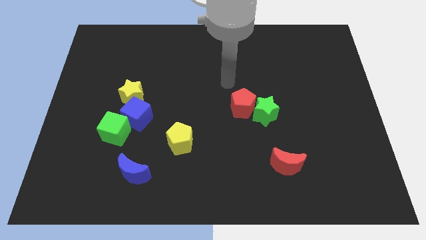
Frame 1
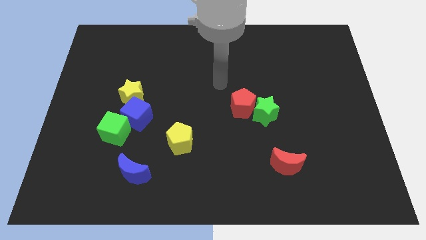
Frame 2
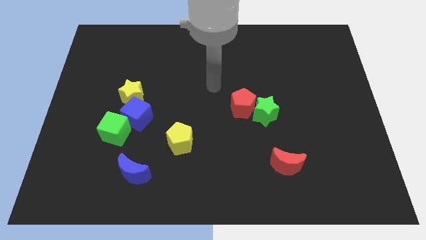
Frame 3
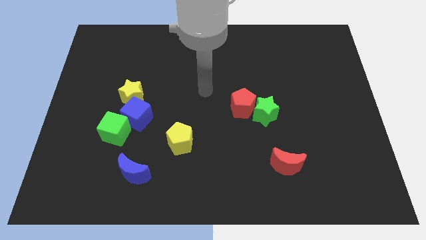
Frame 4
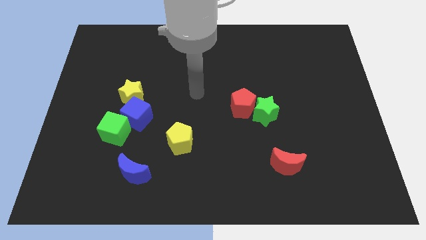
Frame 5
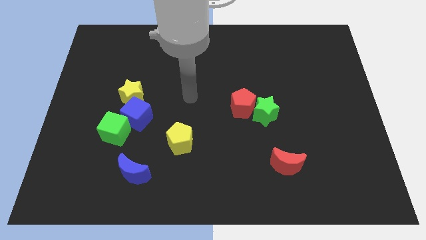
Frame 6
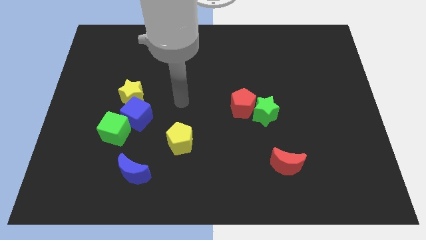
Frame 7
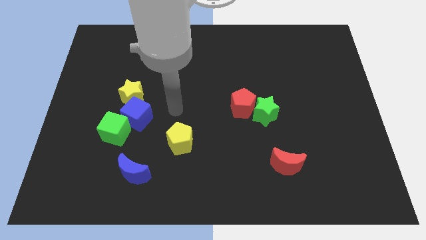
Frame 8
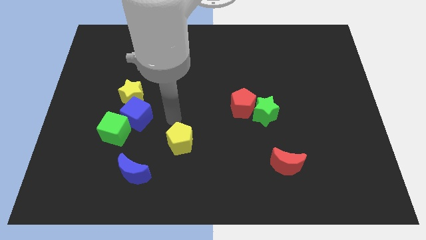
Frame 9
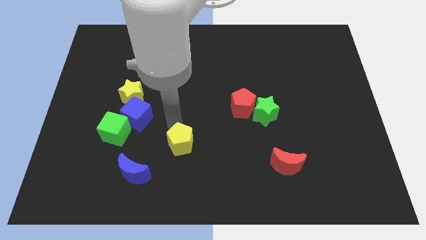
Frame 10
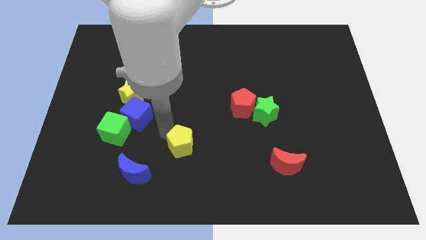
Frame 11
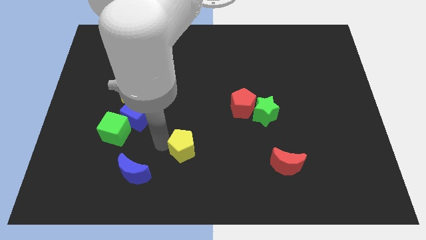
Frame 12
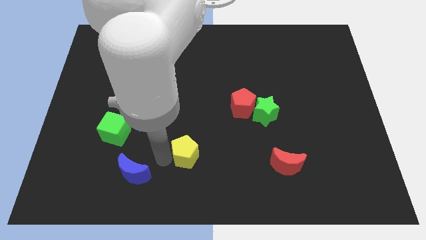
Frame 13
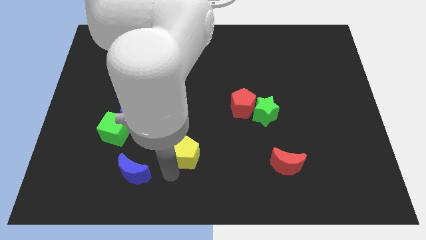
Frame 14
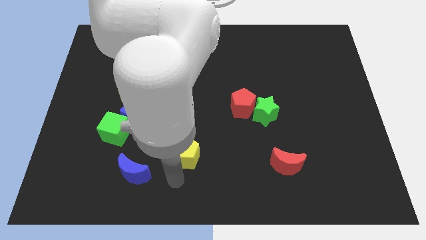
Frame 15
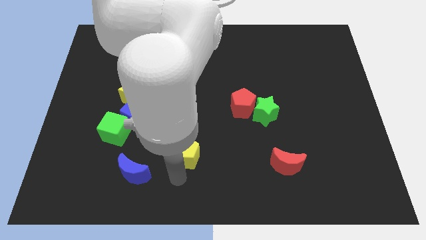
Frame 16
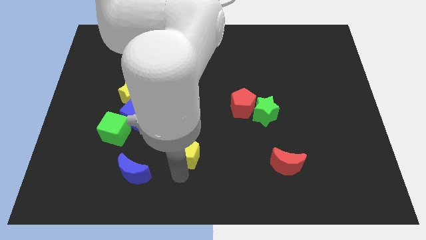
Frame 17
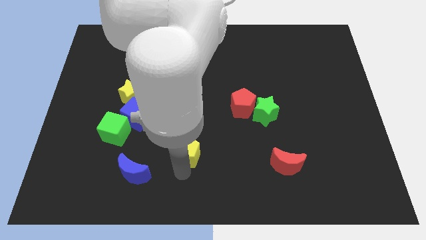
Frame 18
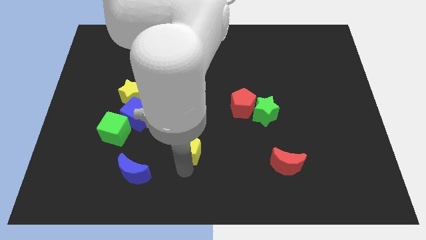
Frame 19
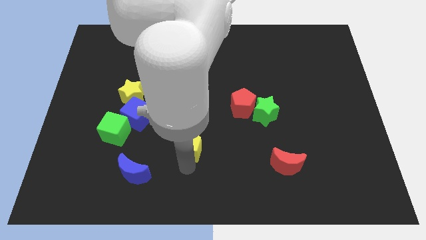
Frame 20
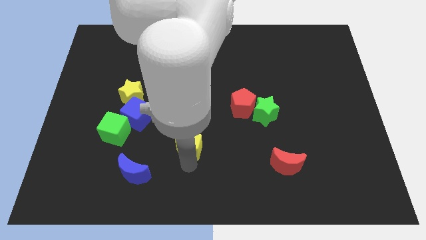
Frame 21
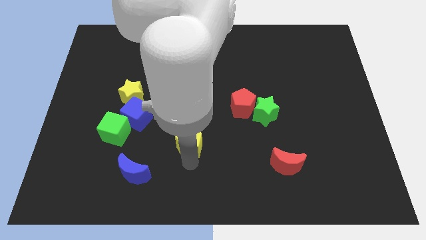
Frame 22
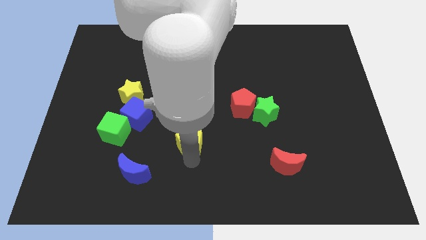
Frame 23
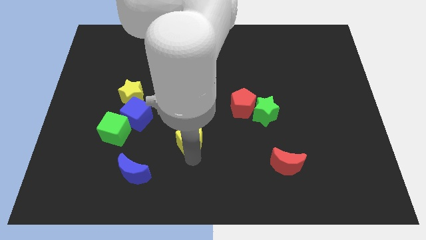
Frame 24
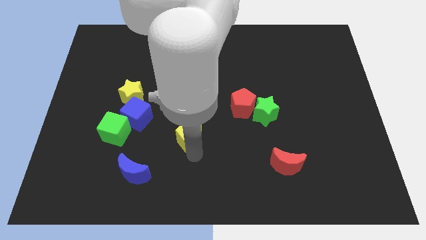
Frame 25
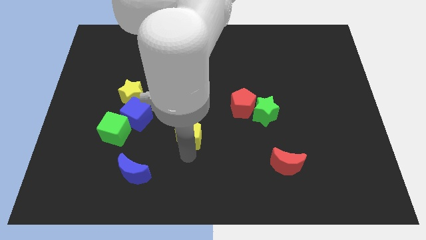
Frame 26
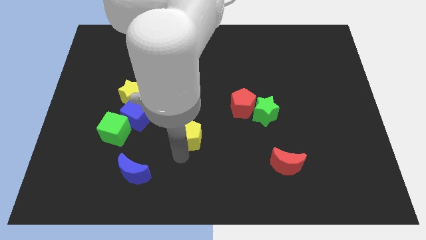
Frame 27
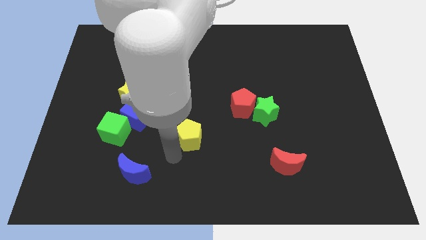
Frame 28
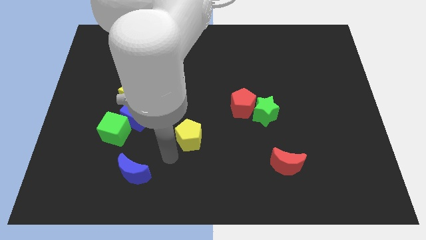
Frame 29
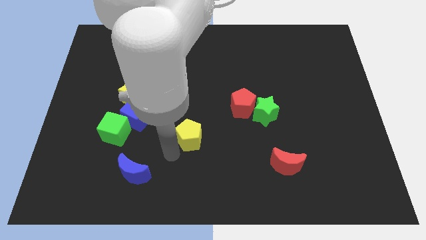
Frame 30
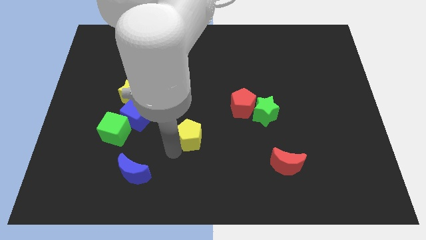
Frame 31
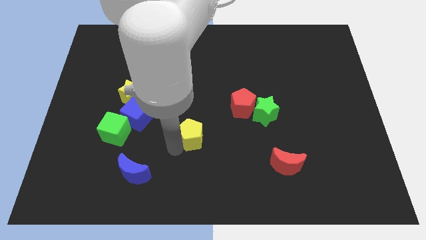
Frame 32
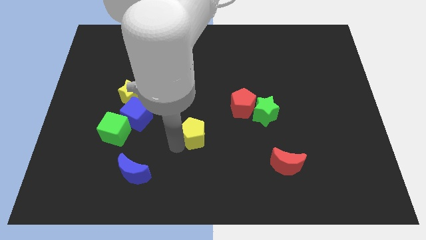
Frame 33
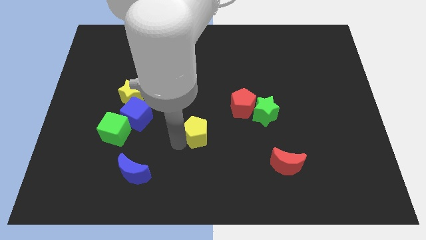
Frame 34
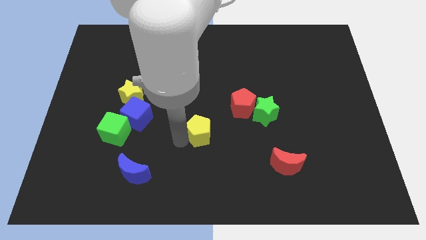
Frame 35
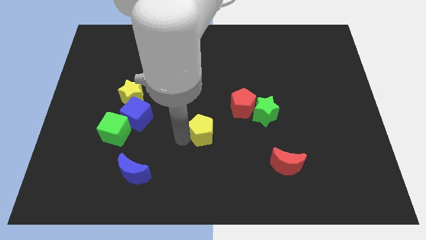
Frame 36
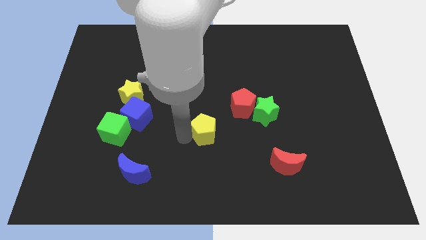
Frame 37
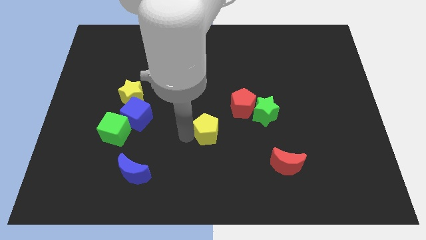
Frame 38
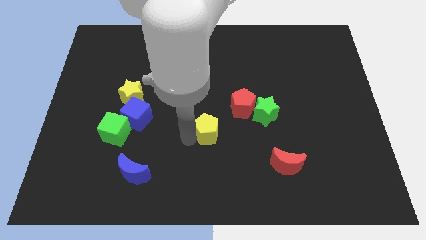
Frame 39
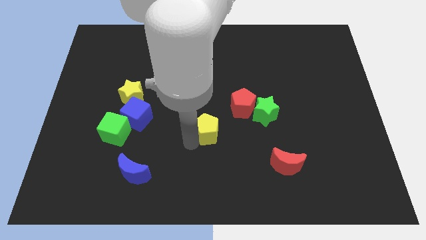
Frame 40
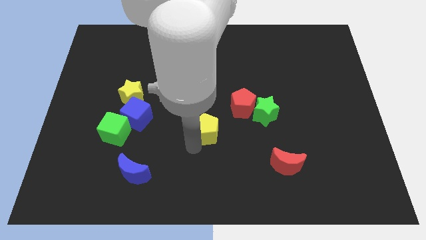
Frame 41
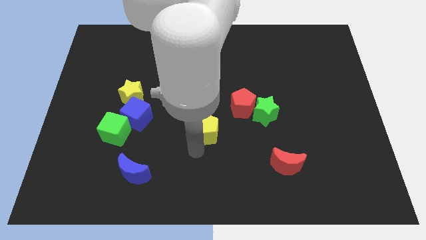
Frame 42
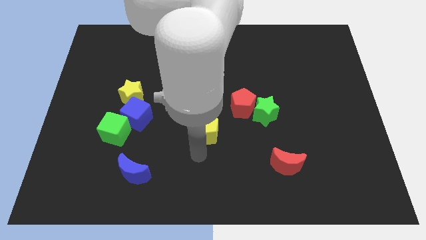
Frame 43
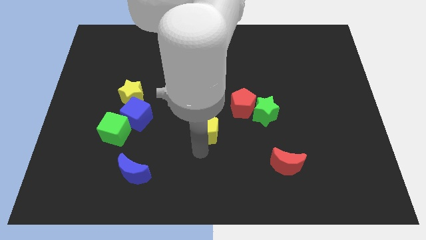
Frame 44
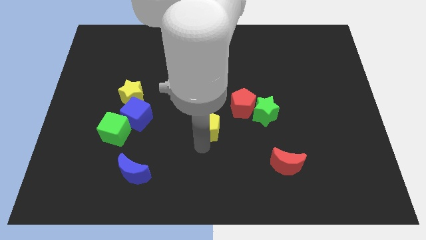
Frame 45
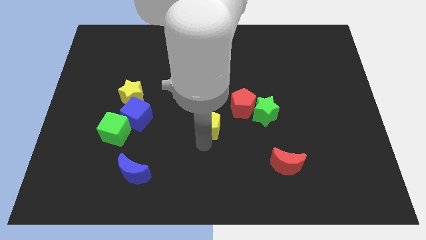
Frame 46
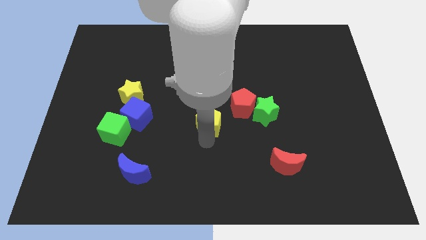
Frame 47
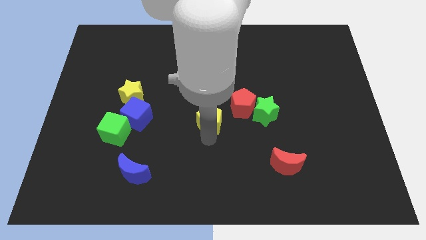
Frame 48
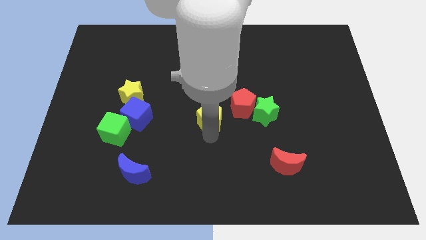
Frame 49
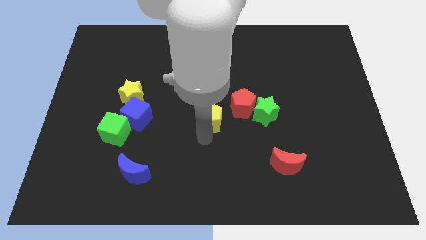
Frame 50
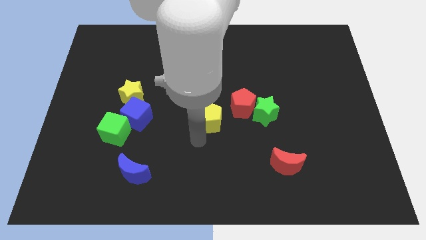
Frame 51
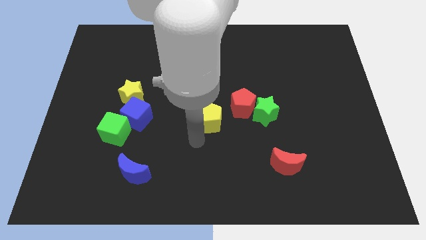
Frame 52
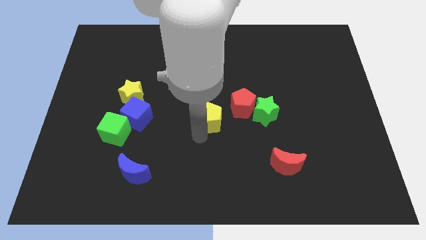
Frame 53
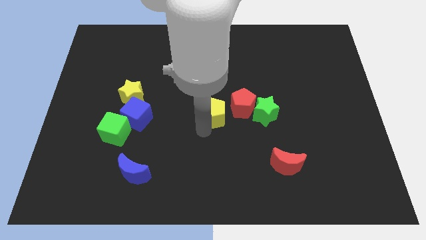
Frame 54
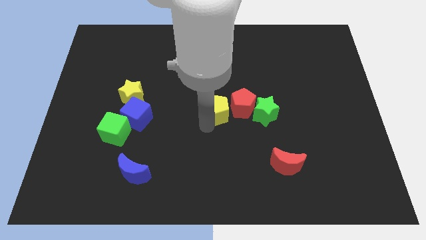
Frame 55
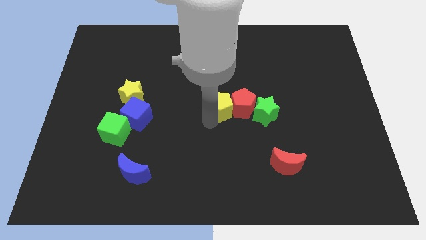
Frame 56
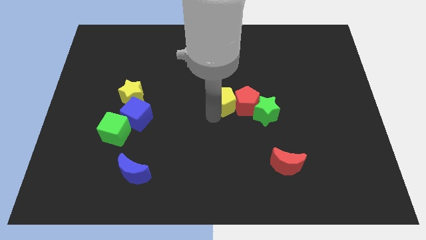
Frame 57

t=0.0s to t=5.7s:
put the yellow pentagon to the top left side of the green star

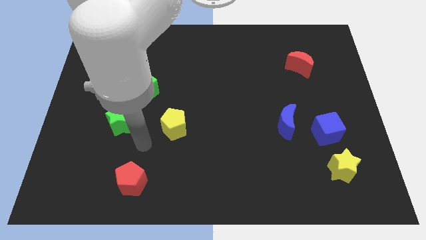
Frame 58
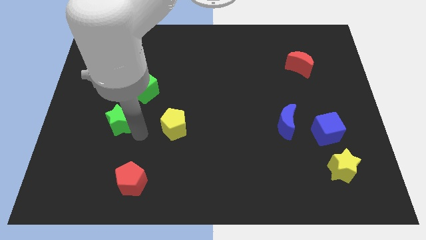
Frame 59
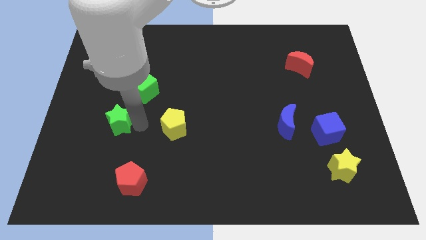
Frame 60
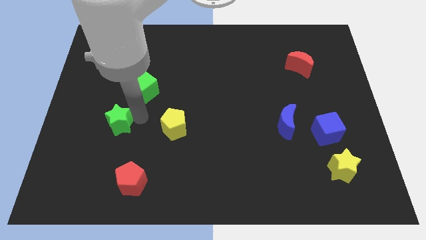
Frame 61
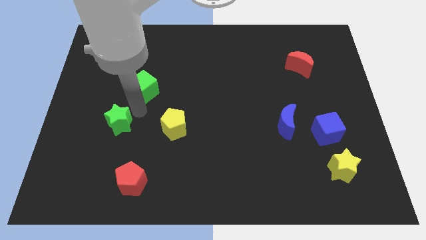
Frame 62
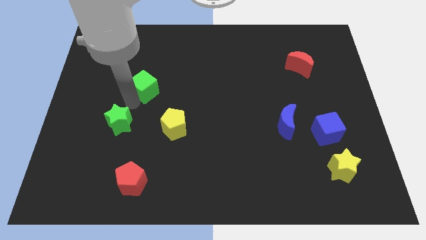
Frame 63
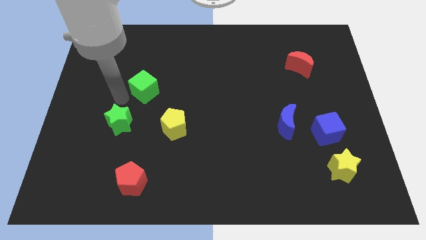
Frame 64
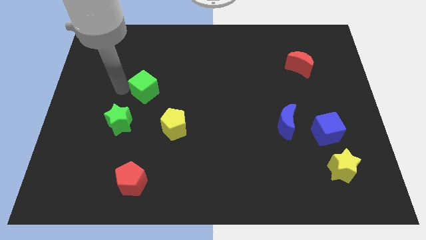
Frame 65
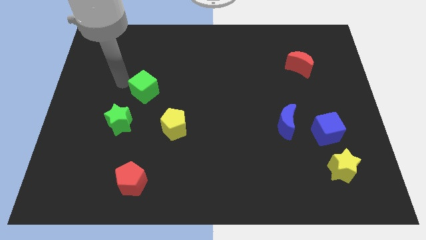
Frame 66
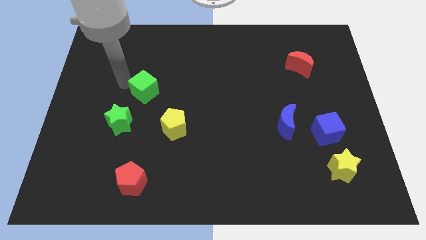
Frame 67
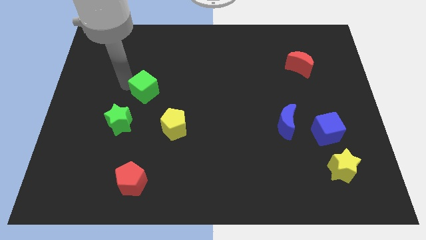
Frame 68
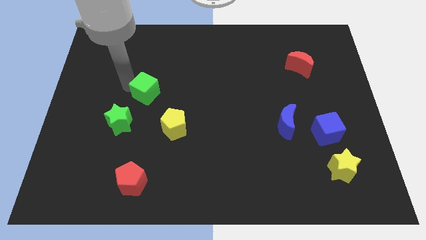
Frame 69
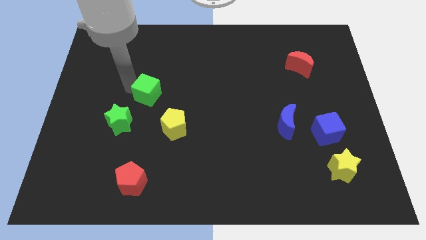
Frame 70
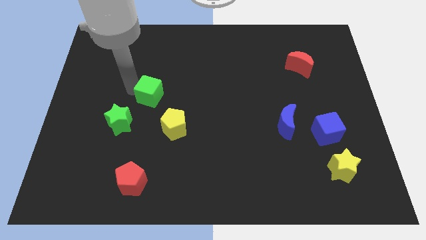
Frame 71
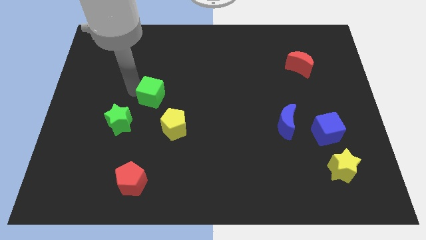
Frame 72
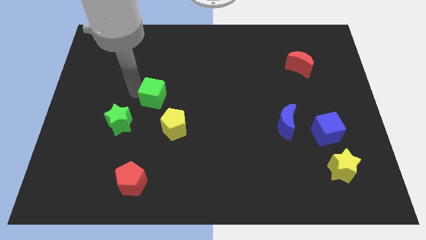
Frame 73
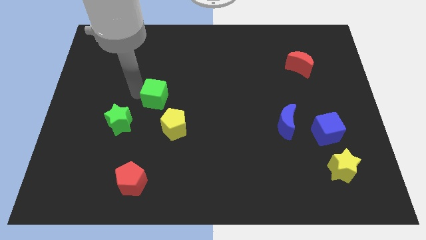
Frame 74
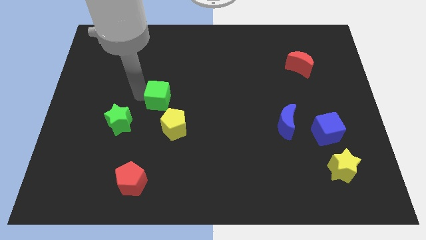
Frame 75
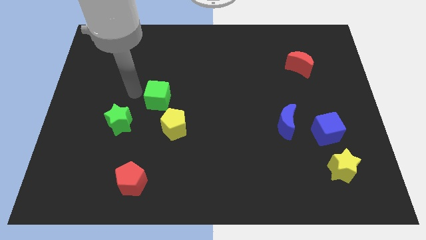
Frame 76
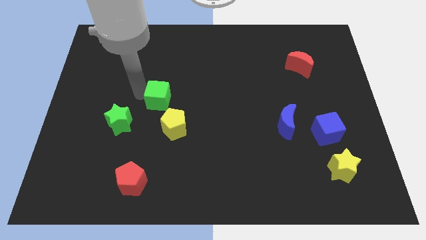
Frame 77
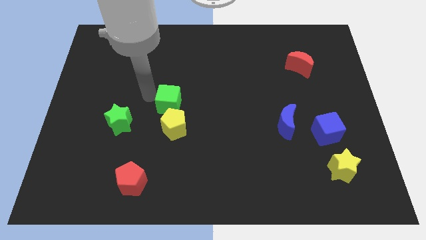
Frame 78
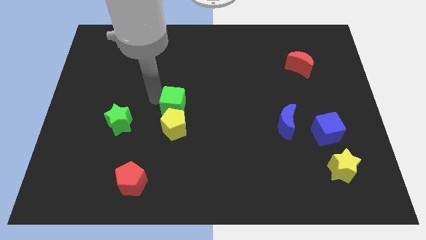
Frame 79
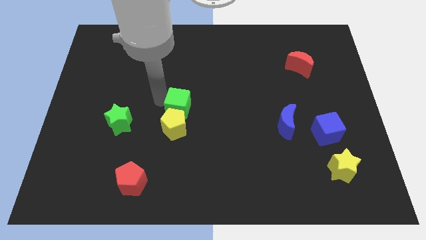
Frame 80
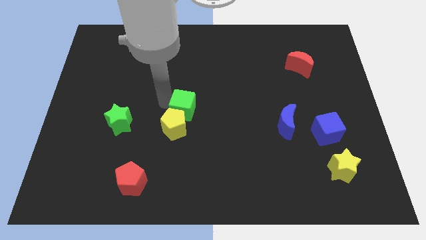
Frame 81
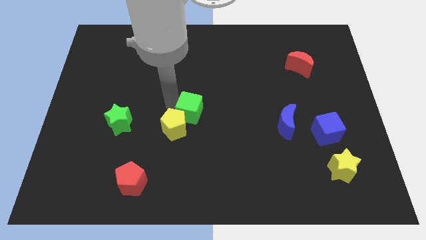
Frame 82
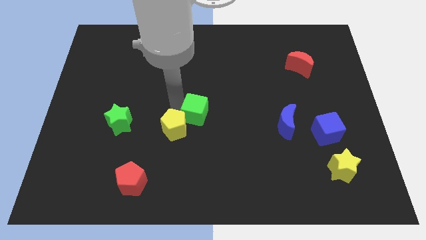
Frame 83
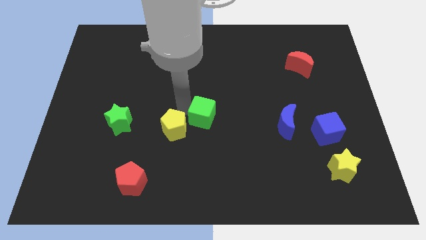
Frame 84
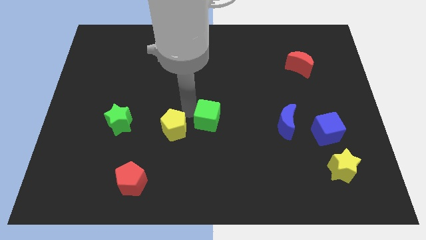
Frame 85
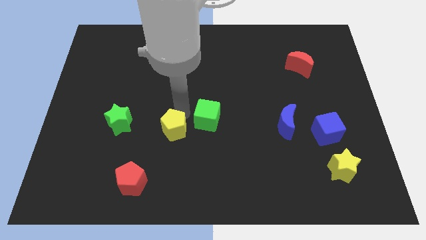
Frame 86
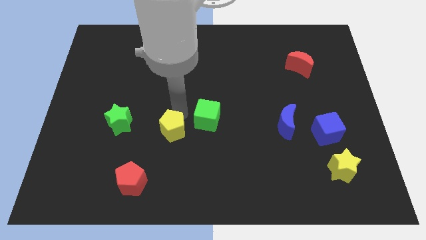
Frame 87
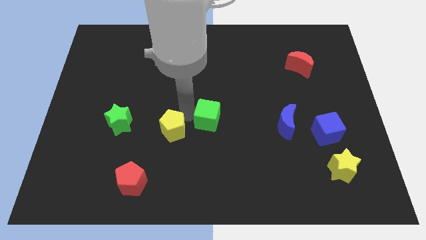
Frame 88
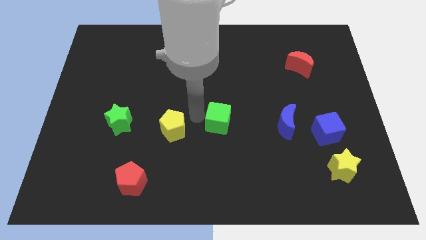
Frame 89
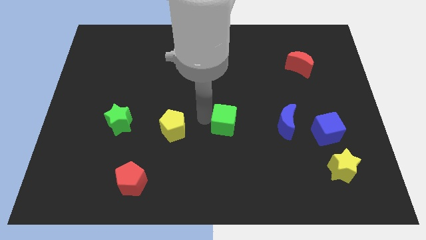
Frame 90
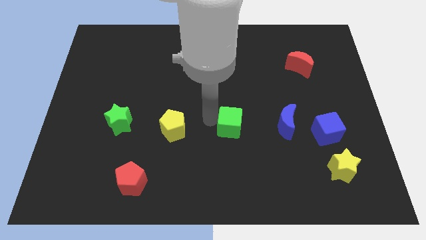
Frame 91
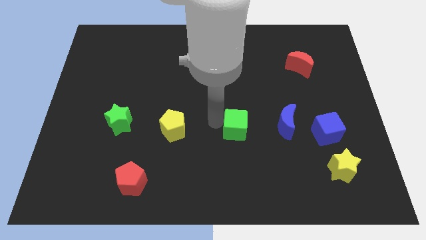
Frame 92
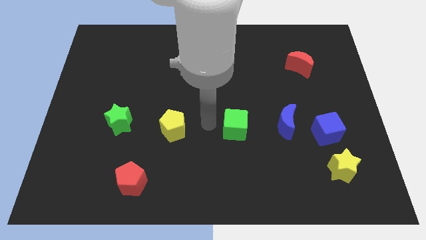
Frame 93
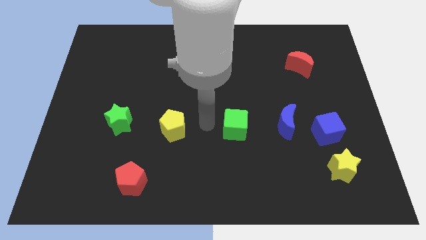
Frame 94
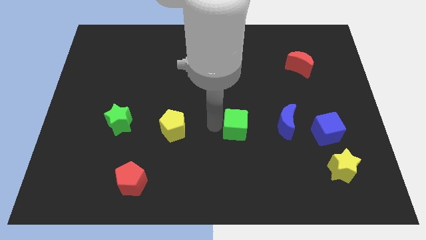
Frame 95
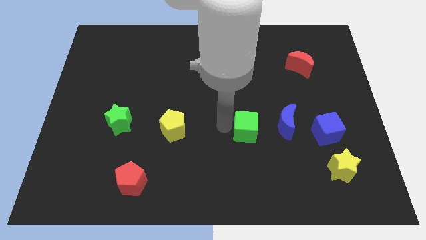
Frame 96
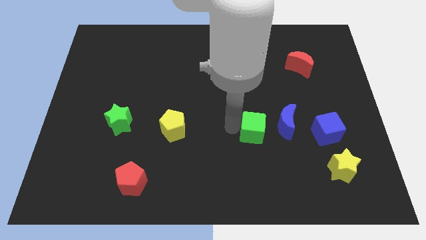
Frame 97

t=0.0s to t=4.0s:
push the green cube to the left side of the blue cube
